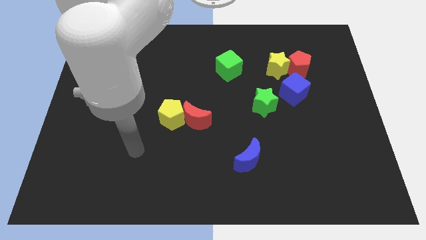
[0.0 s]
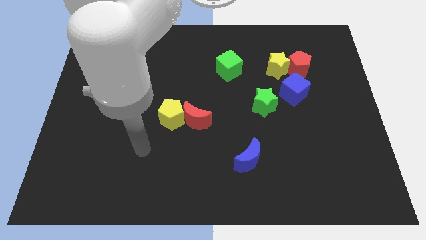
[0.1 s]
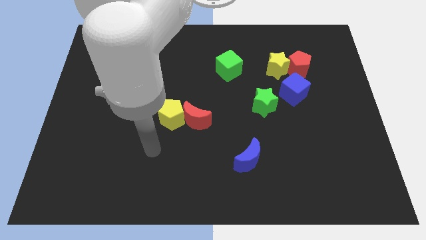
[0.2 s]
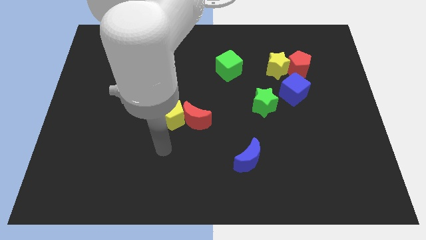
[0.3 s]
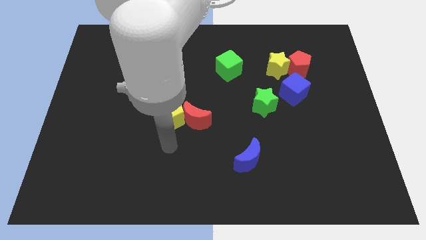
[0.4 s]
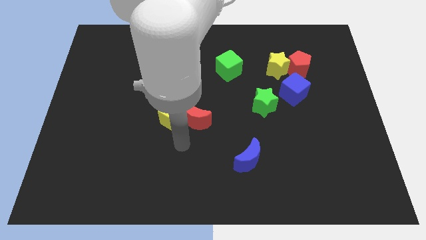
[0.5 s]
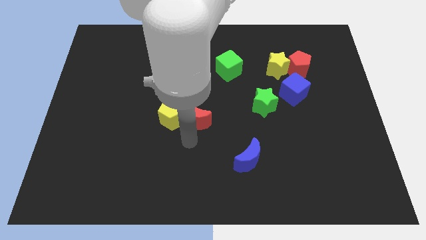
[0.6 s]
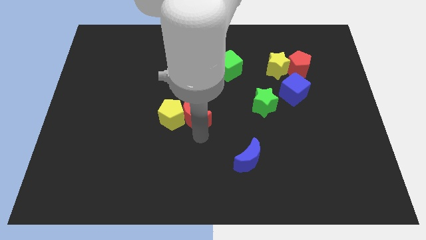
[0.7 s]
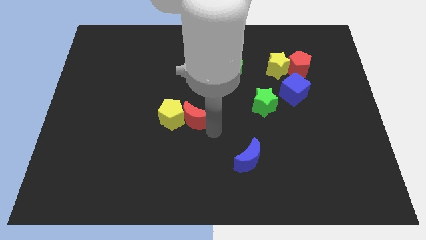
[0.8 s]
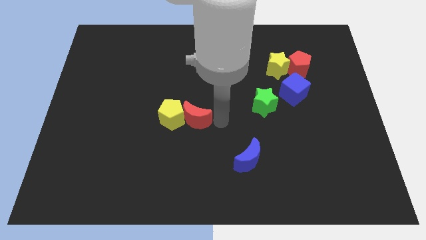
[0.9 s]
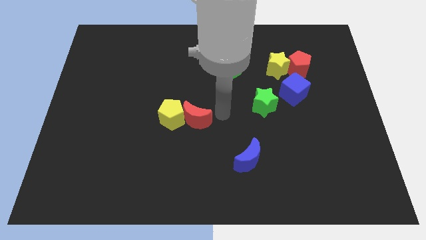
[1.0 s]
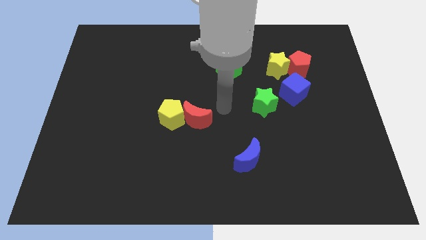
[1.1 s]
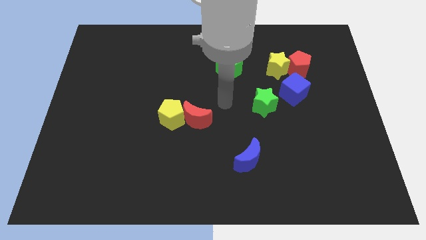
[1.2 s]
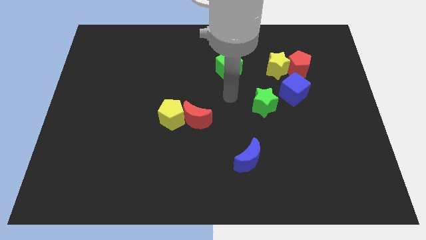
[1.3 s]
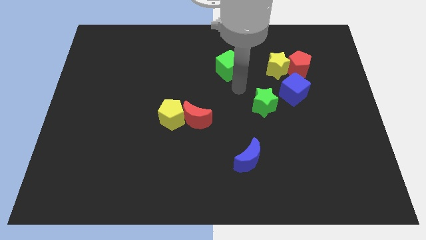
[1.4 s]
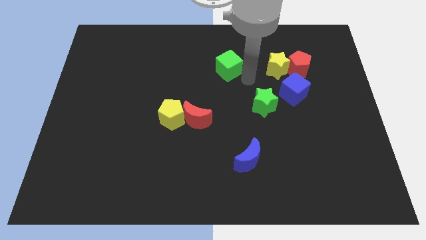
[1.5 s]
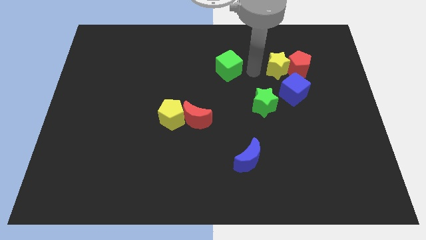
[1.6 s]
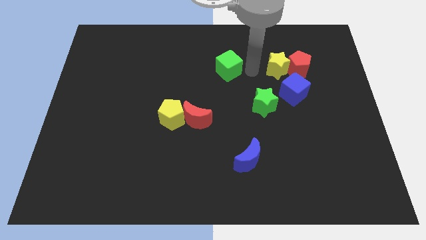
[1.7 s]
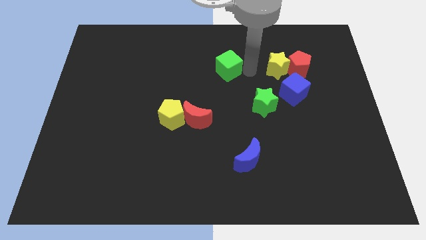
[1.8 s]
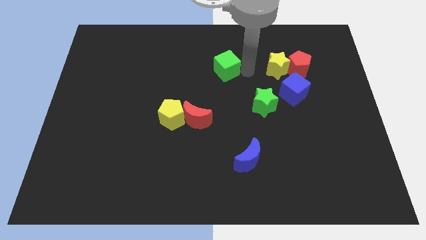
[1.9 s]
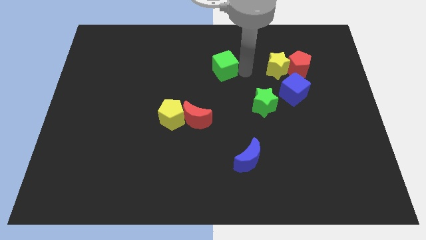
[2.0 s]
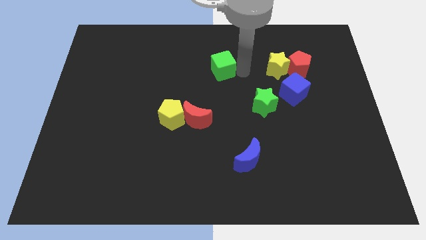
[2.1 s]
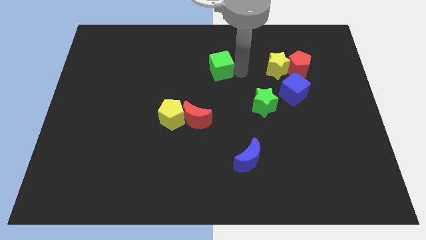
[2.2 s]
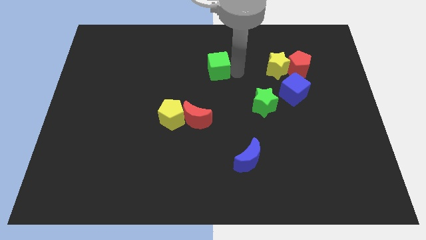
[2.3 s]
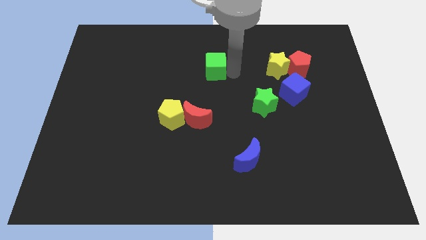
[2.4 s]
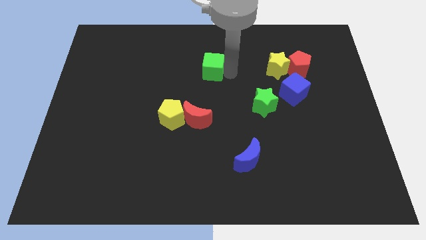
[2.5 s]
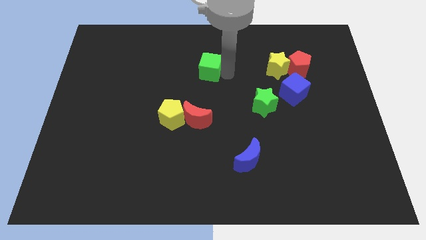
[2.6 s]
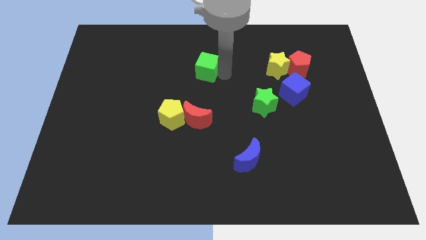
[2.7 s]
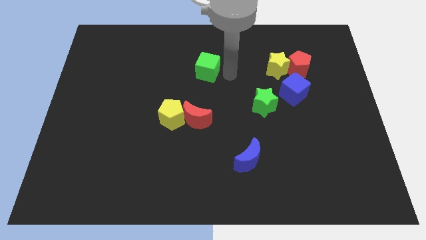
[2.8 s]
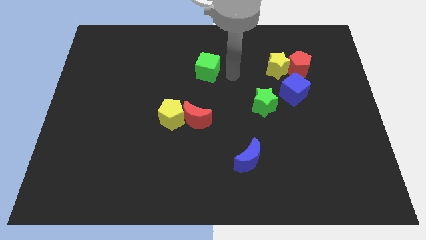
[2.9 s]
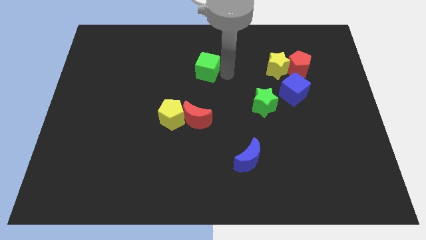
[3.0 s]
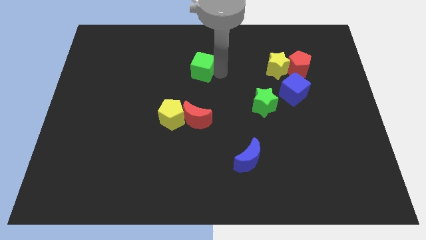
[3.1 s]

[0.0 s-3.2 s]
slightly slide the green cube left

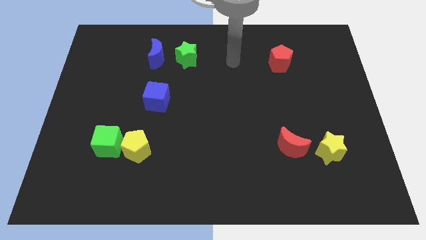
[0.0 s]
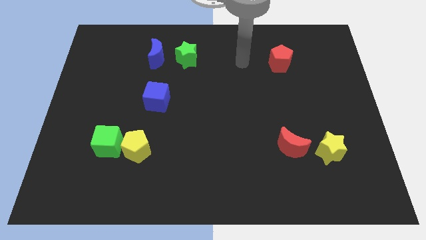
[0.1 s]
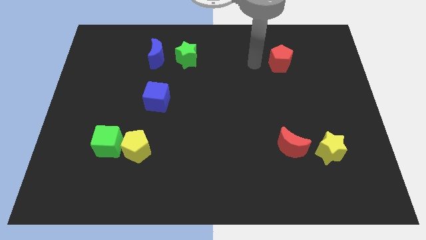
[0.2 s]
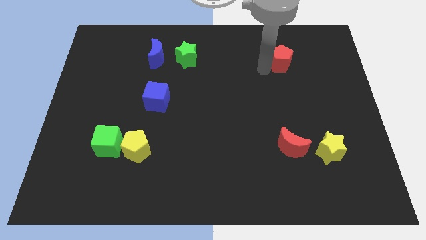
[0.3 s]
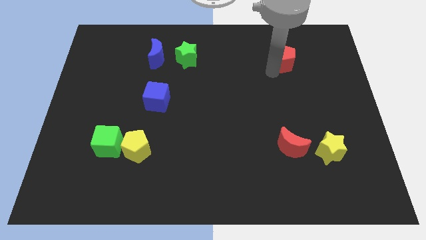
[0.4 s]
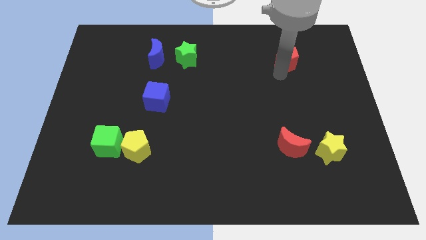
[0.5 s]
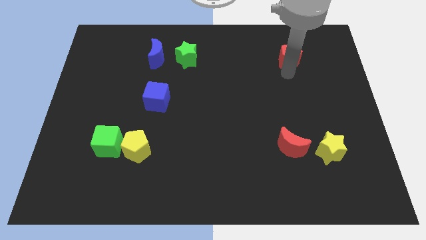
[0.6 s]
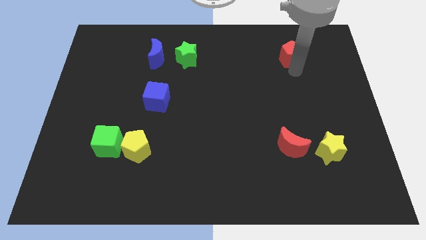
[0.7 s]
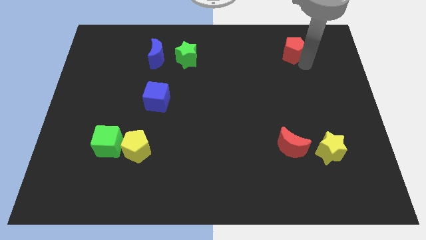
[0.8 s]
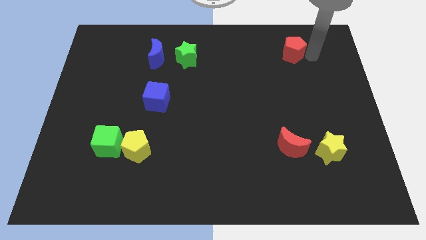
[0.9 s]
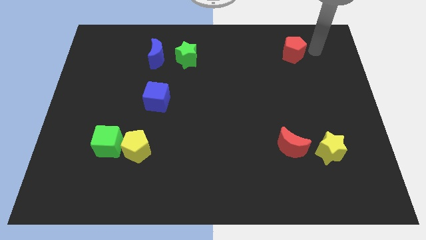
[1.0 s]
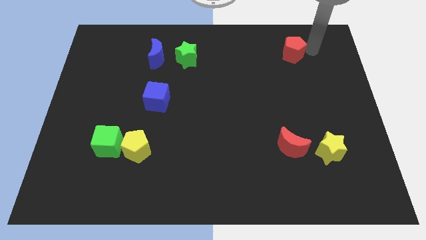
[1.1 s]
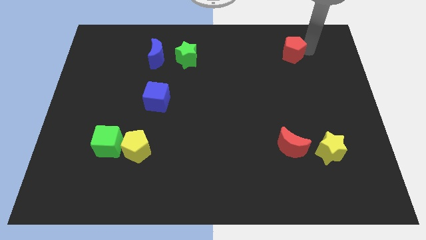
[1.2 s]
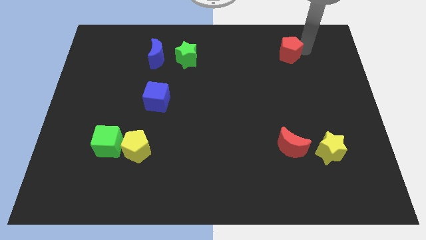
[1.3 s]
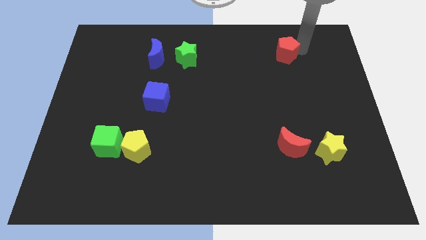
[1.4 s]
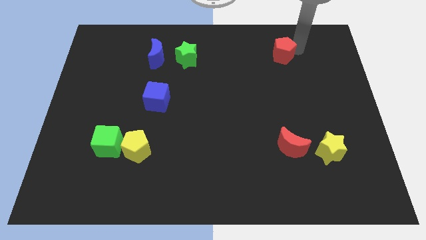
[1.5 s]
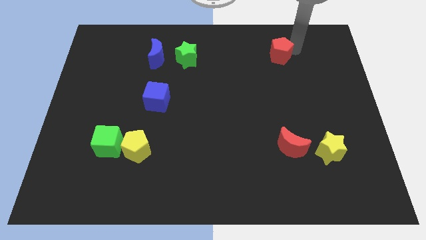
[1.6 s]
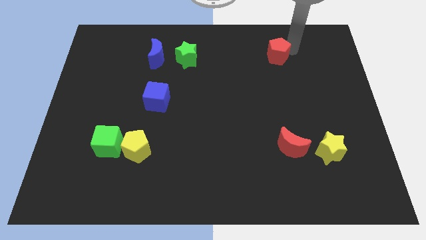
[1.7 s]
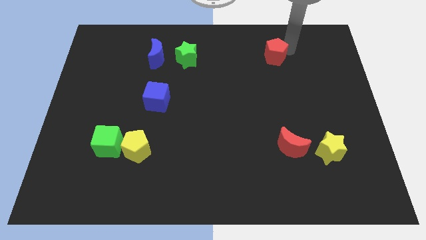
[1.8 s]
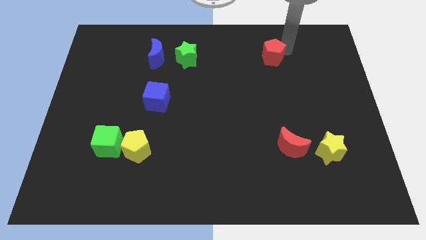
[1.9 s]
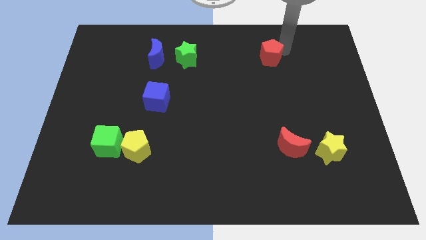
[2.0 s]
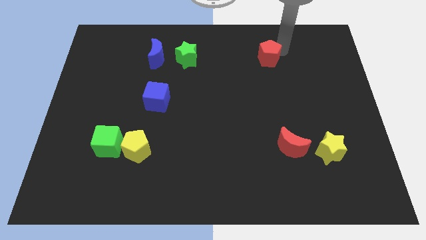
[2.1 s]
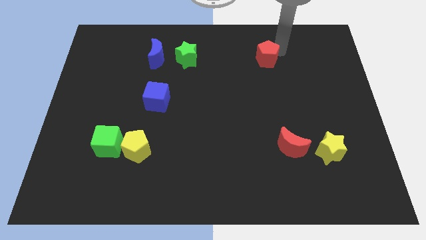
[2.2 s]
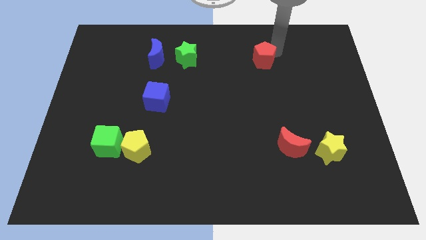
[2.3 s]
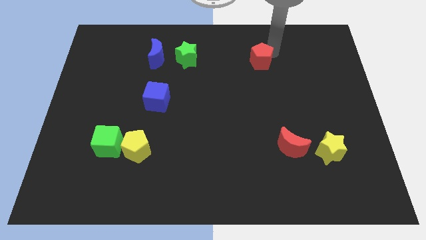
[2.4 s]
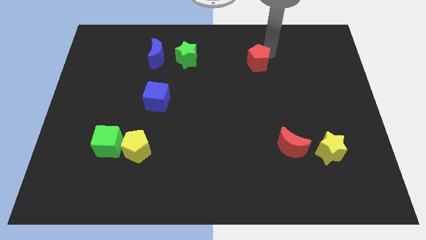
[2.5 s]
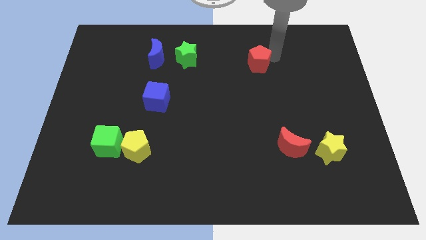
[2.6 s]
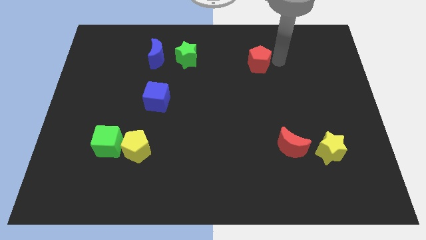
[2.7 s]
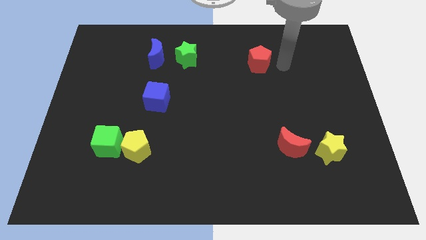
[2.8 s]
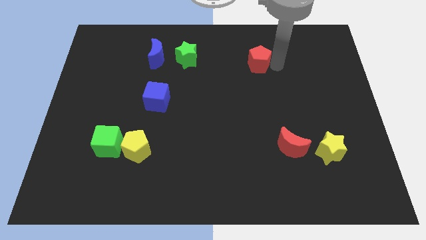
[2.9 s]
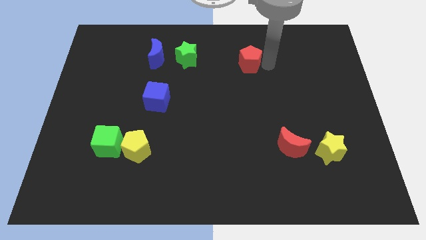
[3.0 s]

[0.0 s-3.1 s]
slide the red pentagon left slightly

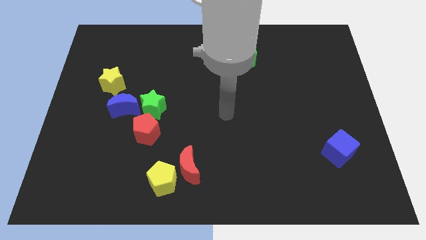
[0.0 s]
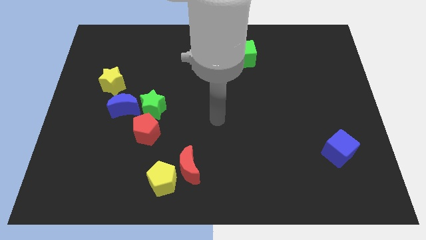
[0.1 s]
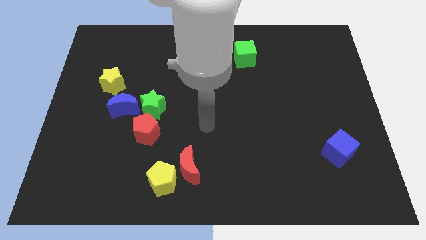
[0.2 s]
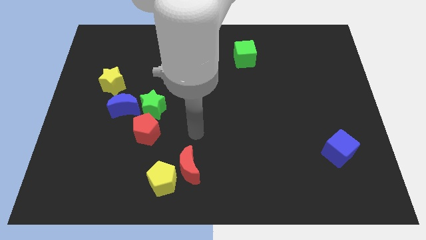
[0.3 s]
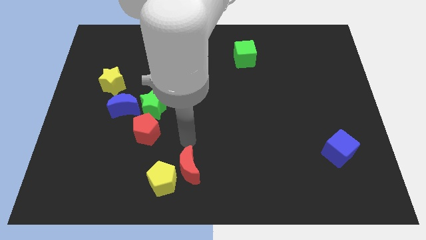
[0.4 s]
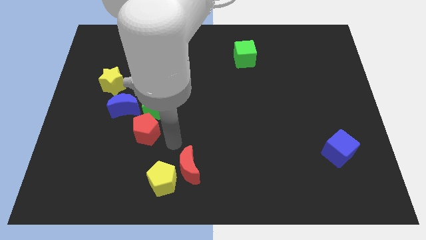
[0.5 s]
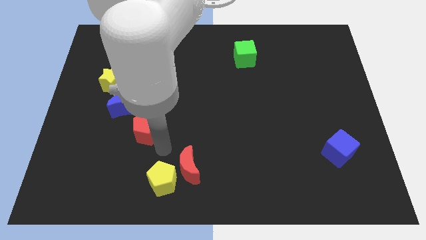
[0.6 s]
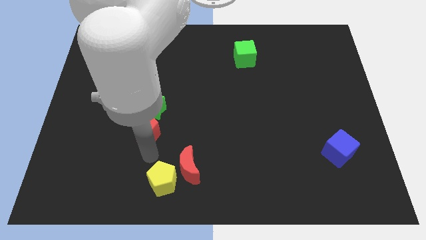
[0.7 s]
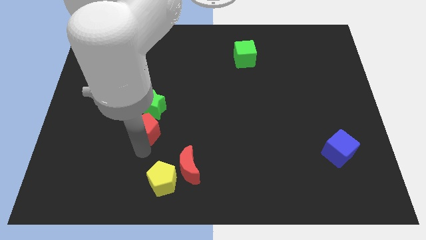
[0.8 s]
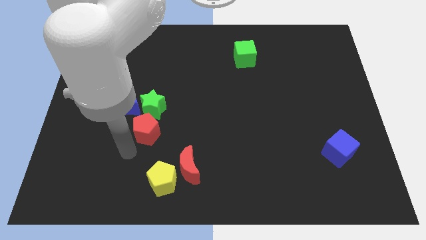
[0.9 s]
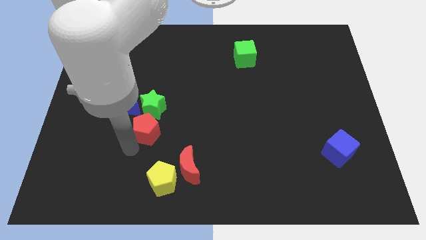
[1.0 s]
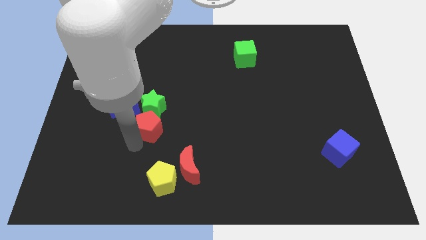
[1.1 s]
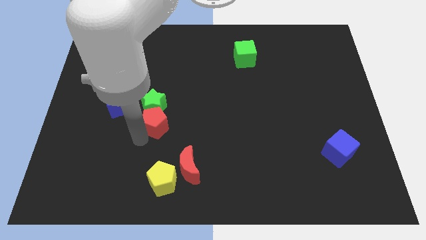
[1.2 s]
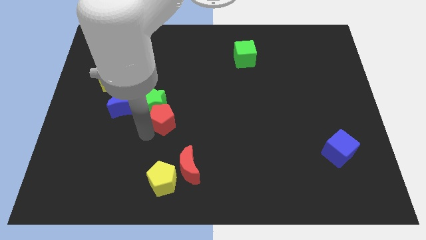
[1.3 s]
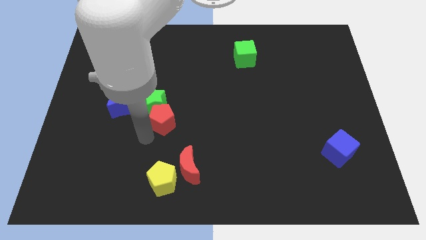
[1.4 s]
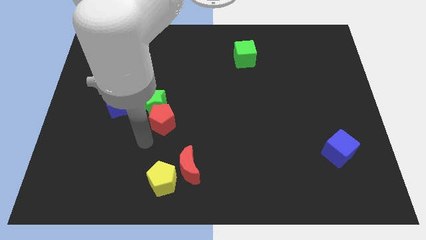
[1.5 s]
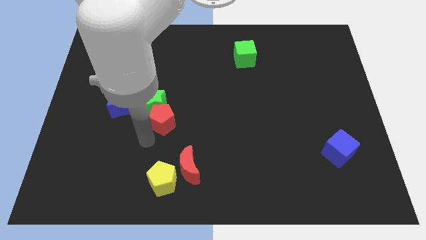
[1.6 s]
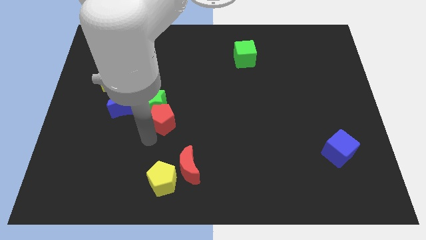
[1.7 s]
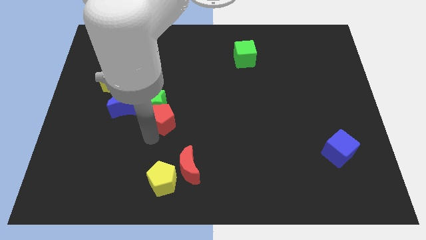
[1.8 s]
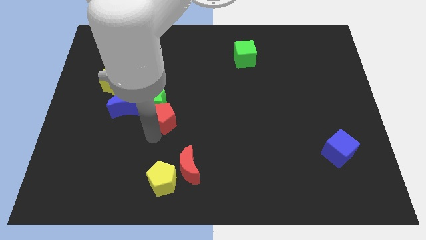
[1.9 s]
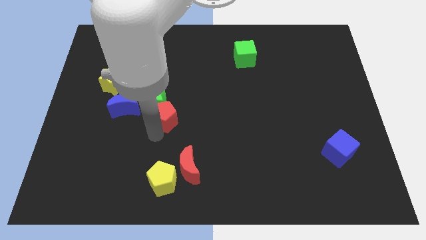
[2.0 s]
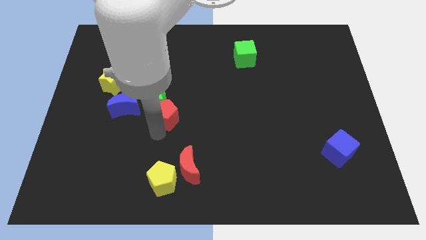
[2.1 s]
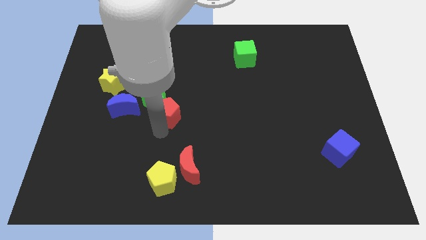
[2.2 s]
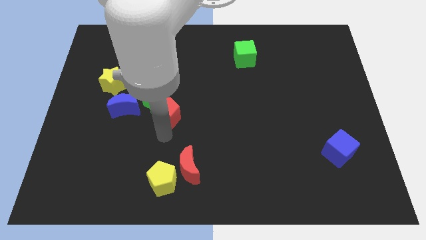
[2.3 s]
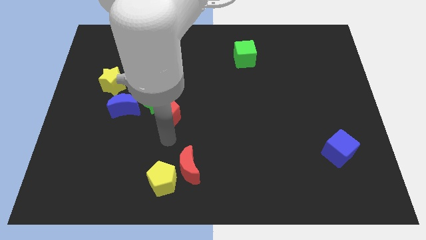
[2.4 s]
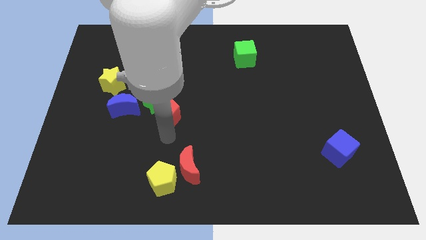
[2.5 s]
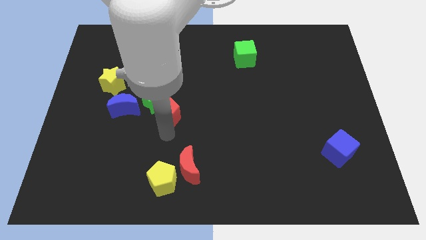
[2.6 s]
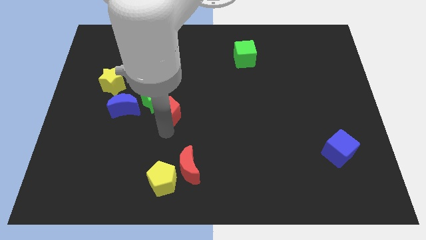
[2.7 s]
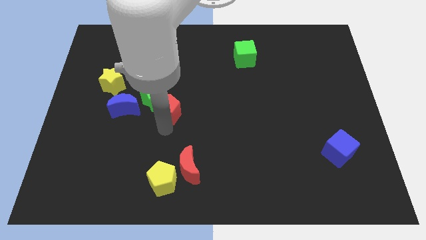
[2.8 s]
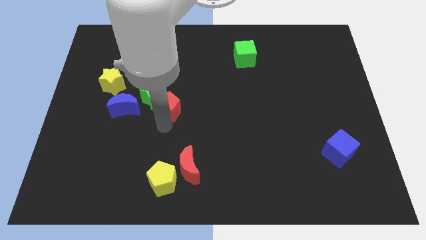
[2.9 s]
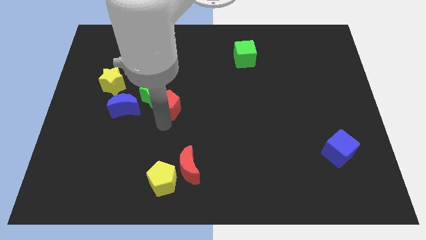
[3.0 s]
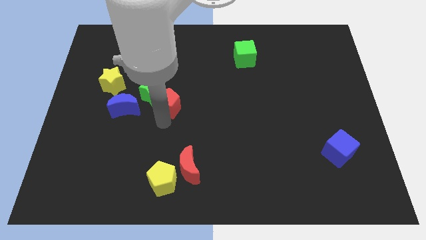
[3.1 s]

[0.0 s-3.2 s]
slightly push the red pentagon up
